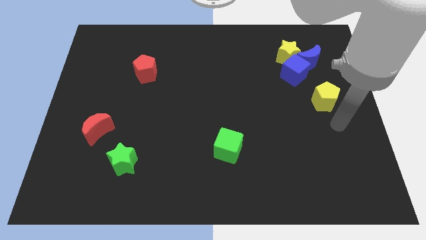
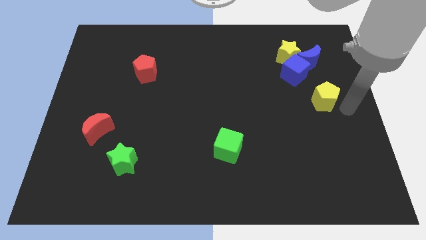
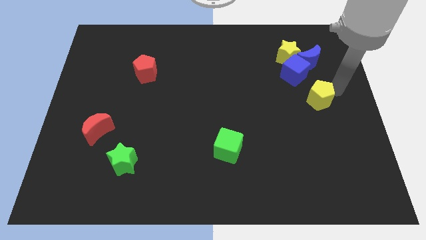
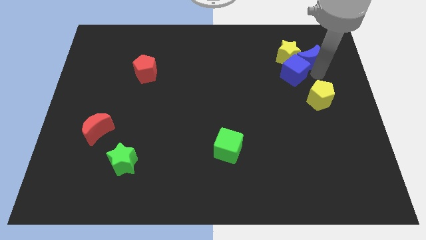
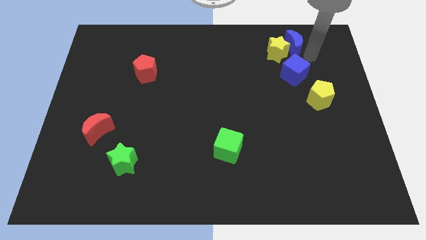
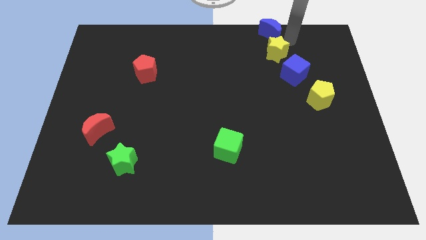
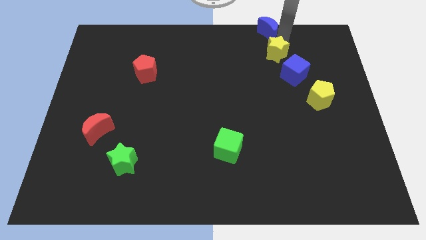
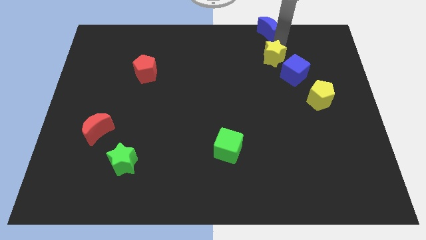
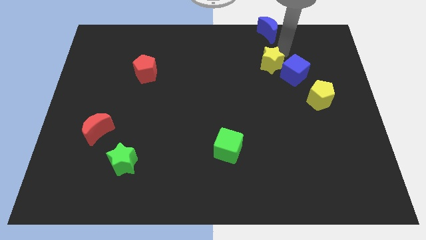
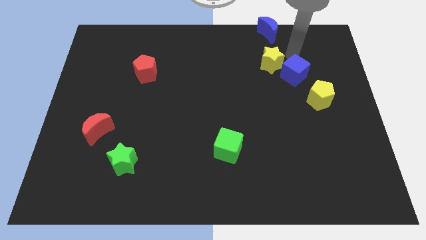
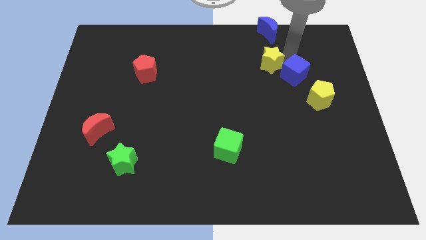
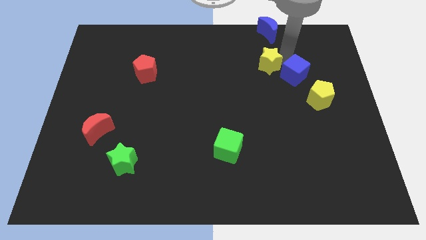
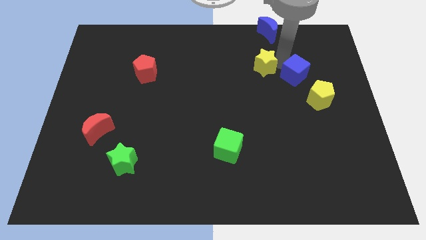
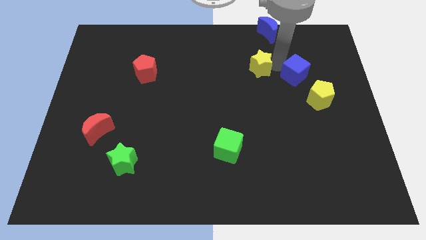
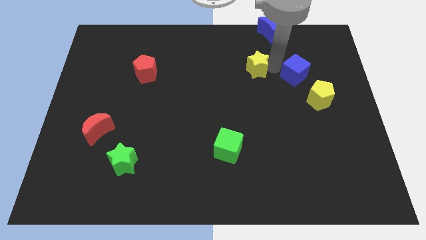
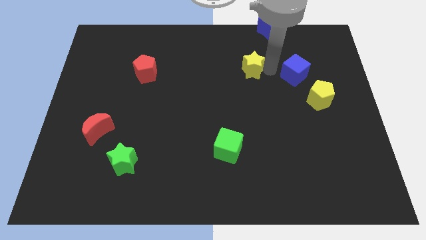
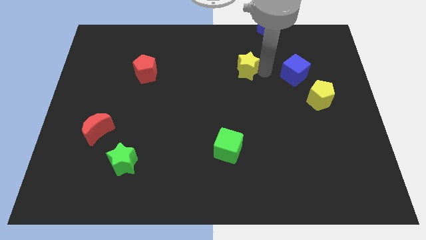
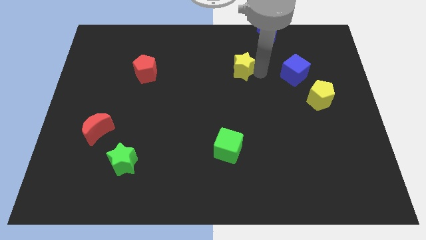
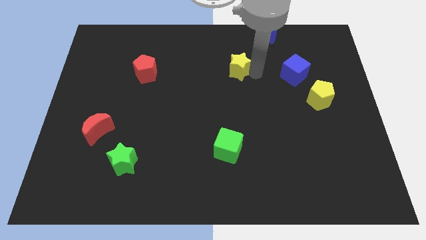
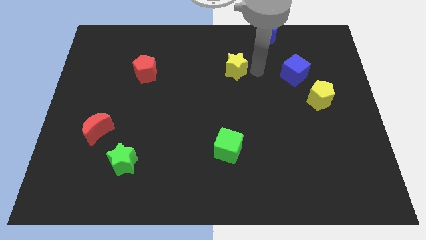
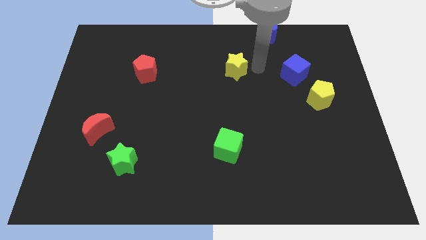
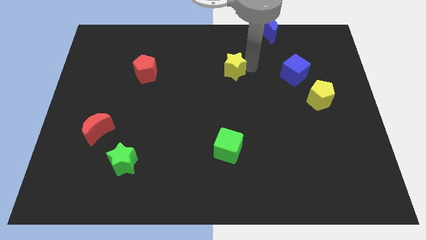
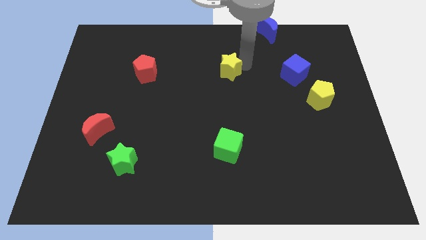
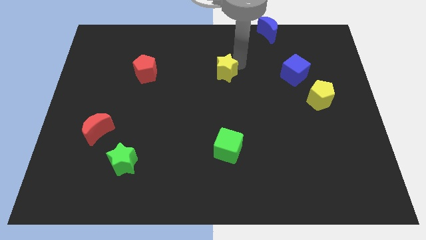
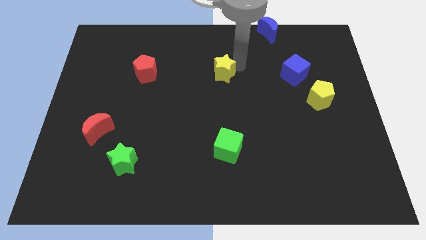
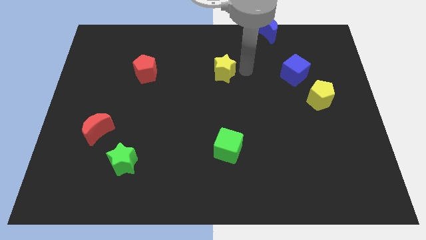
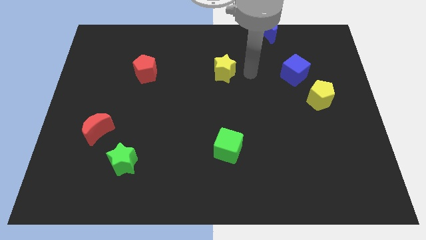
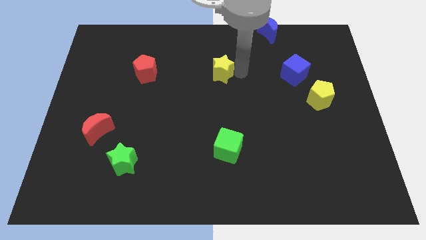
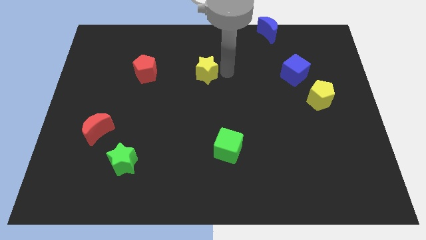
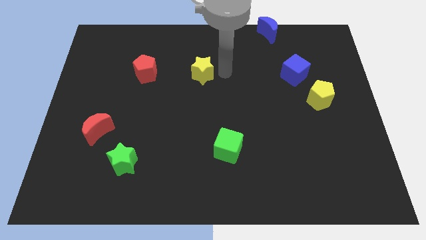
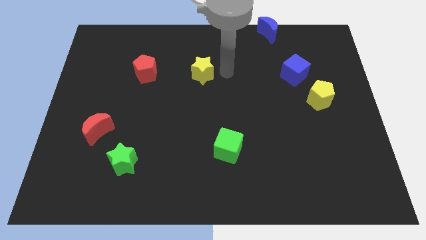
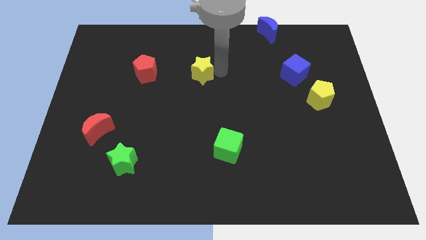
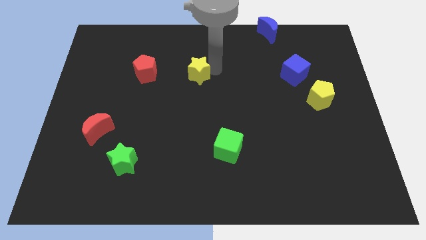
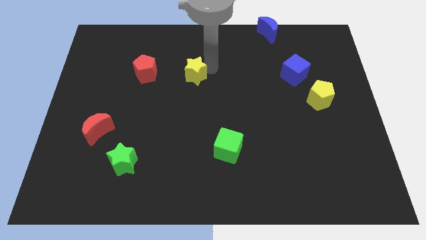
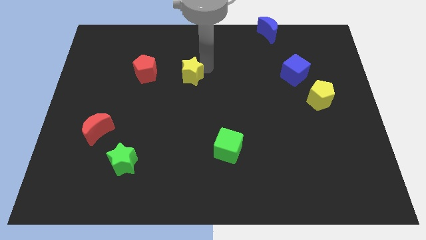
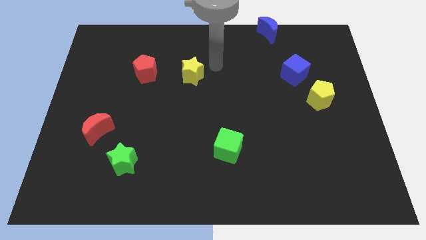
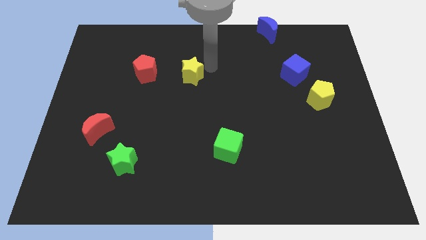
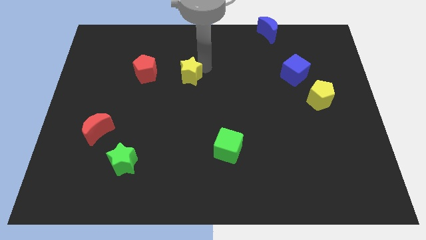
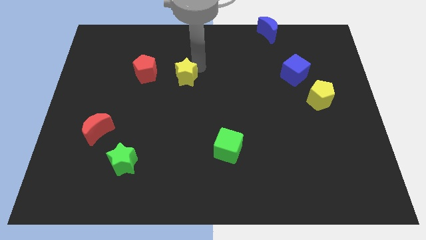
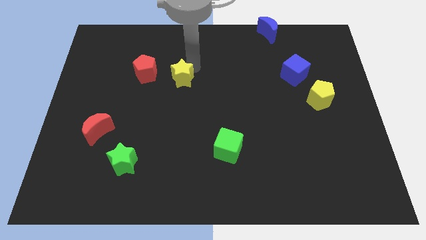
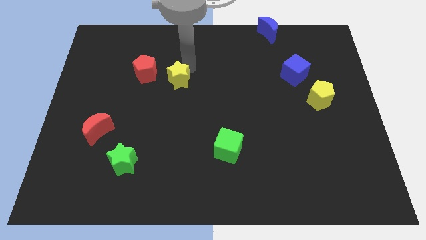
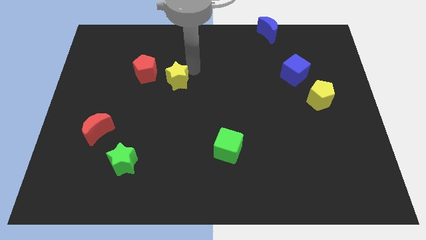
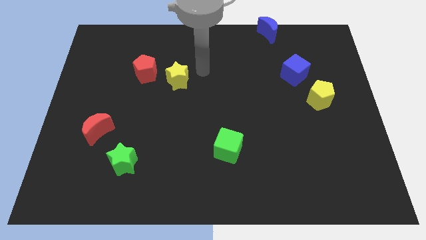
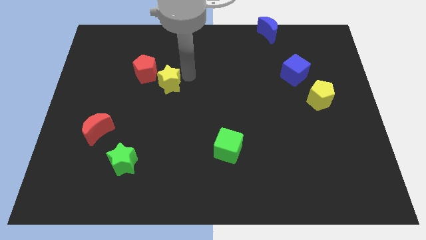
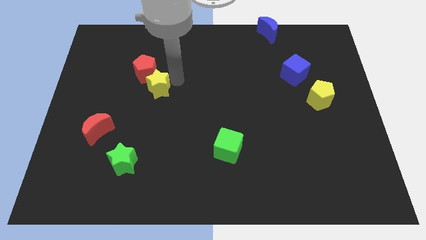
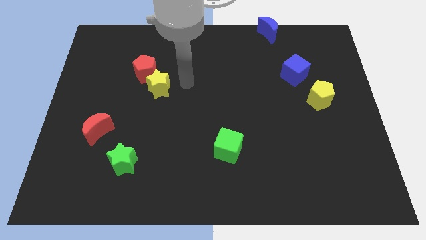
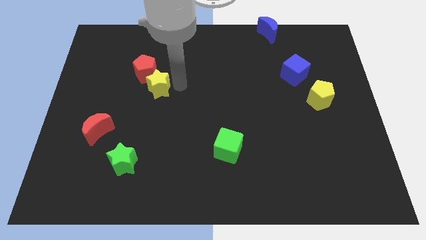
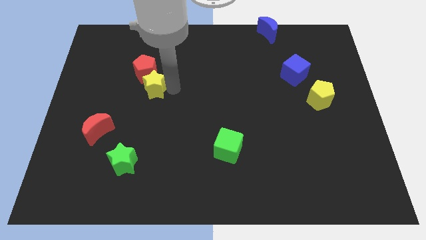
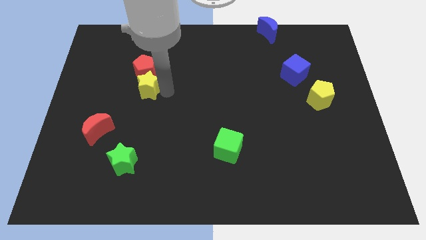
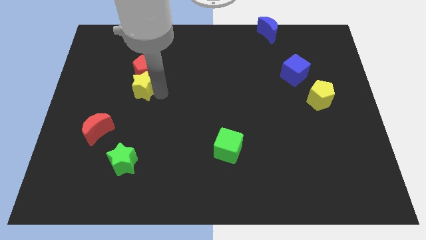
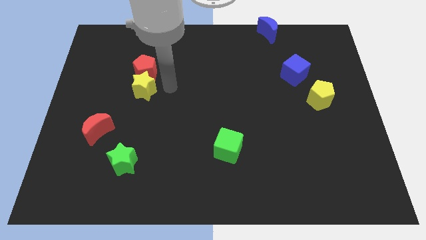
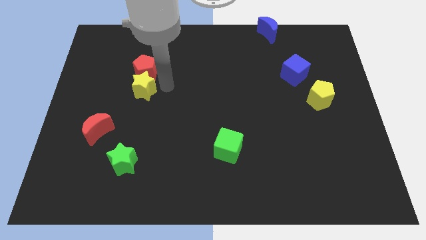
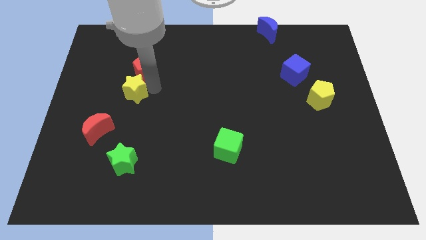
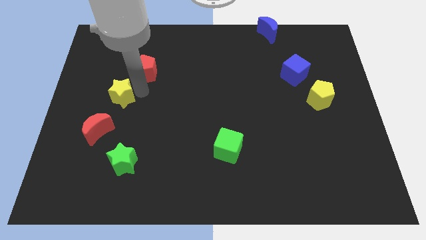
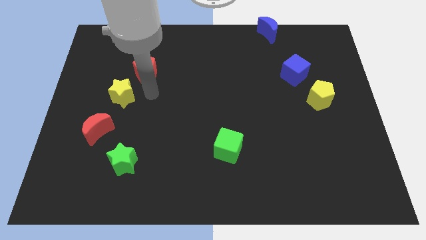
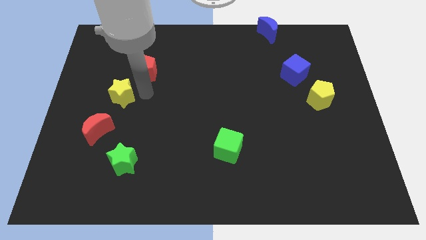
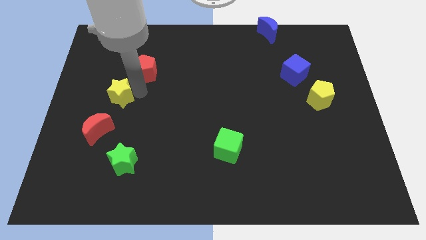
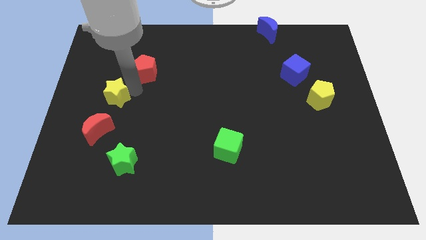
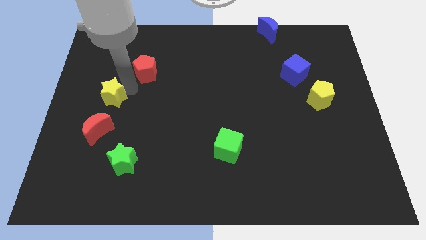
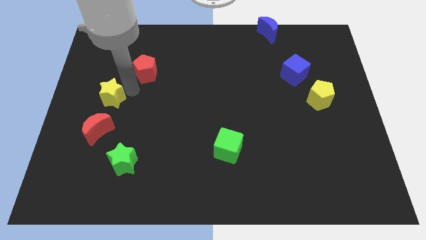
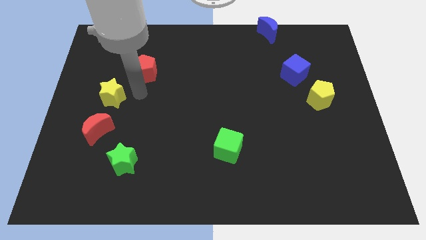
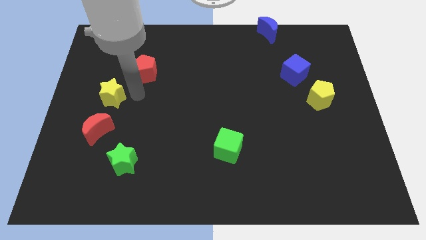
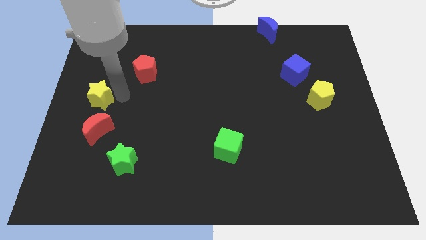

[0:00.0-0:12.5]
slide the yellow star to the center left
